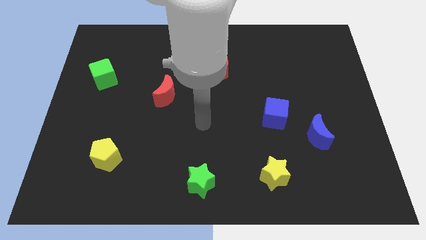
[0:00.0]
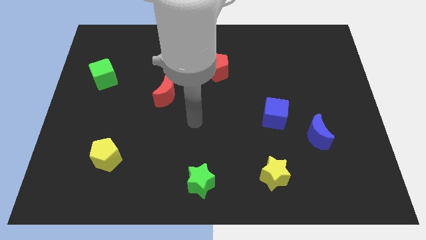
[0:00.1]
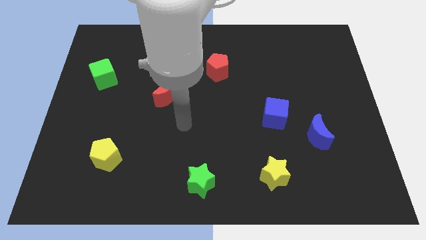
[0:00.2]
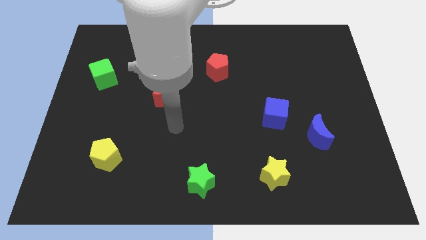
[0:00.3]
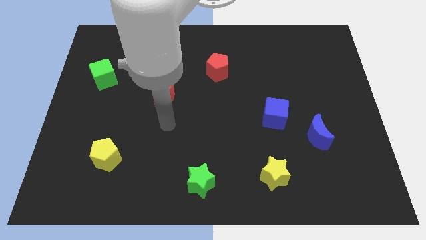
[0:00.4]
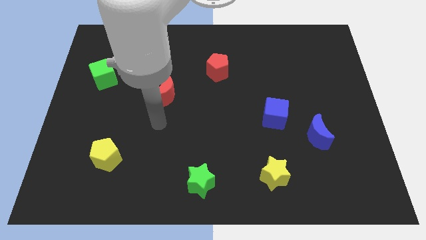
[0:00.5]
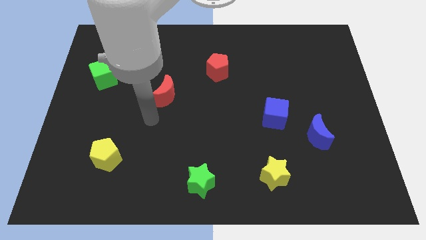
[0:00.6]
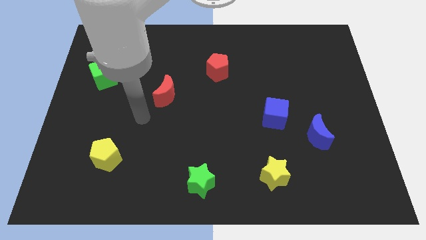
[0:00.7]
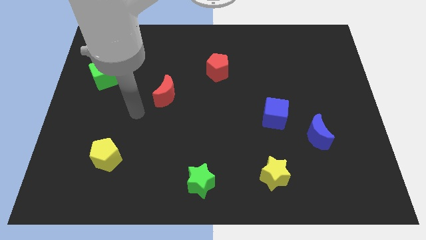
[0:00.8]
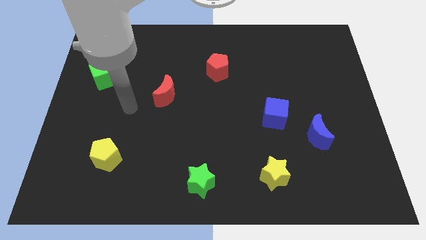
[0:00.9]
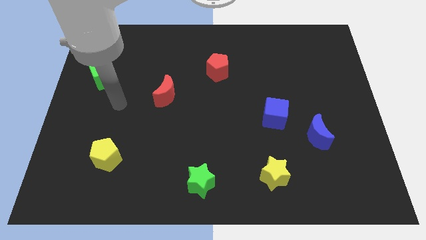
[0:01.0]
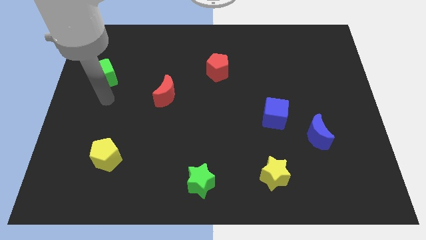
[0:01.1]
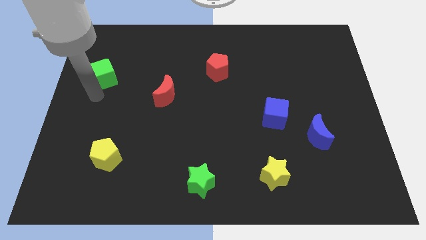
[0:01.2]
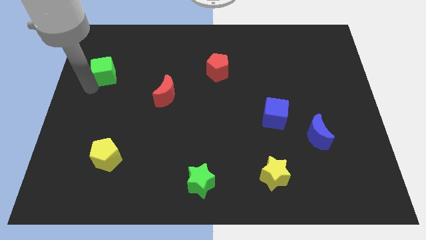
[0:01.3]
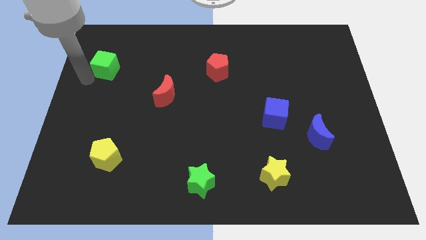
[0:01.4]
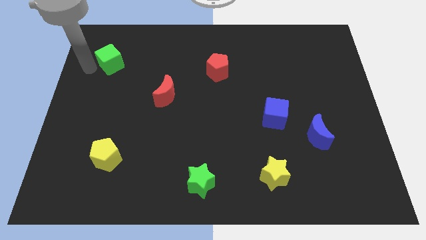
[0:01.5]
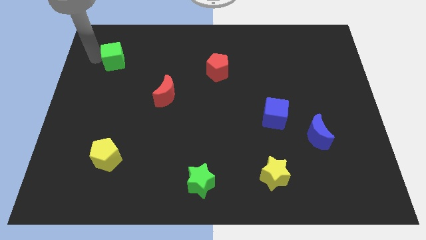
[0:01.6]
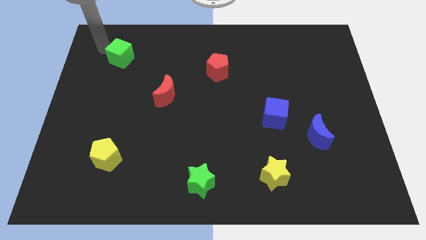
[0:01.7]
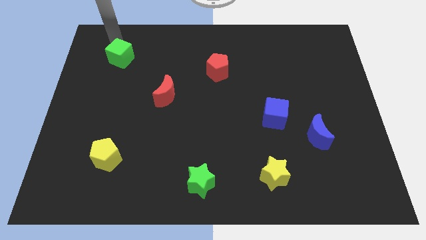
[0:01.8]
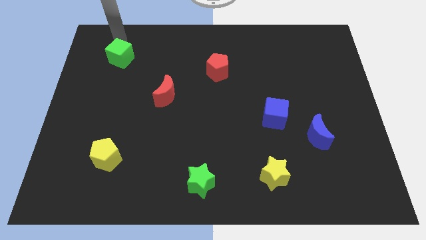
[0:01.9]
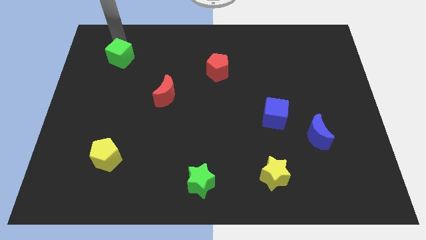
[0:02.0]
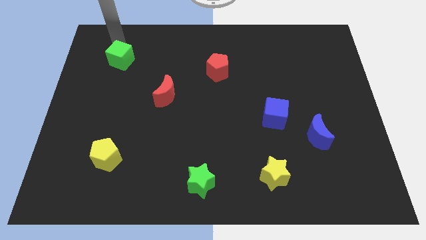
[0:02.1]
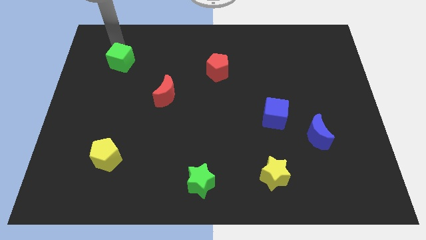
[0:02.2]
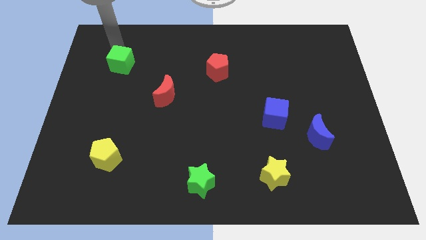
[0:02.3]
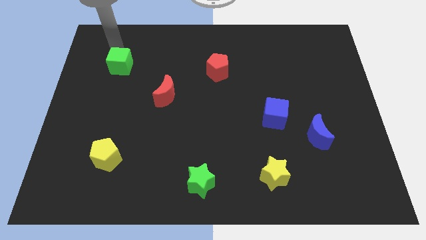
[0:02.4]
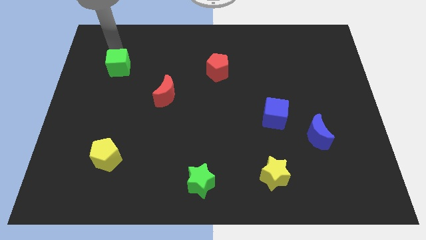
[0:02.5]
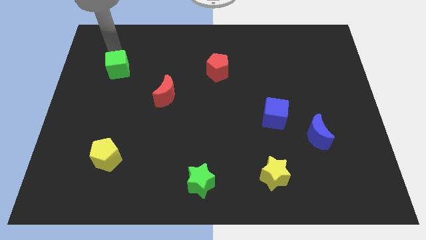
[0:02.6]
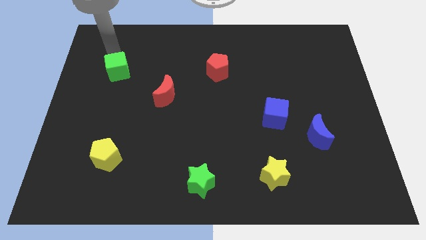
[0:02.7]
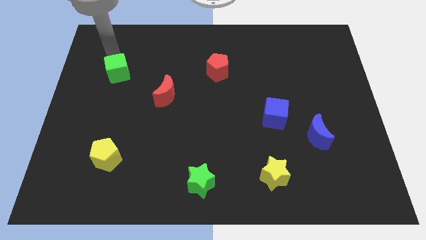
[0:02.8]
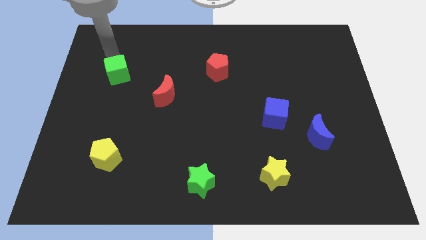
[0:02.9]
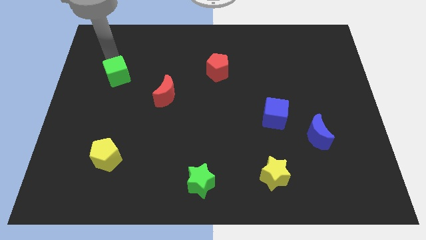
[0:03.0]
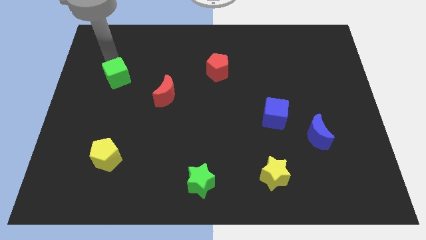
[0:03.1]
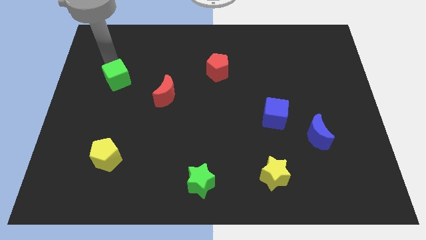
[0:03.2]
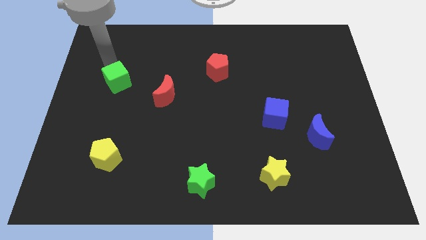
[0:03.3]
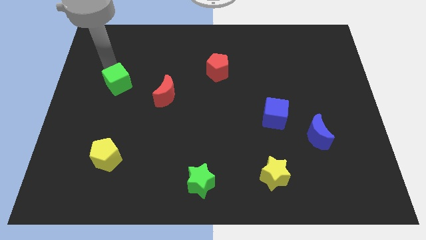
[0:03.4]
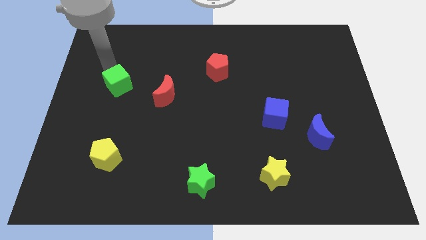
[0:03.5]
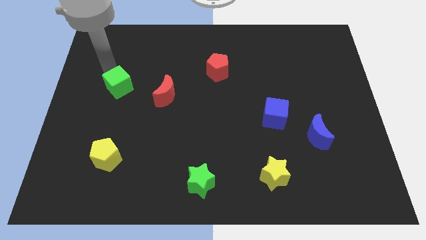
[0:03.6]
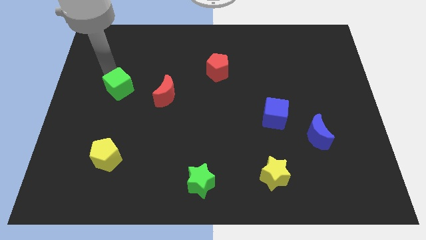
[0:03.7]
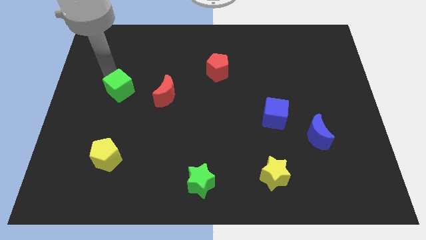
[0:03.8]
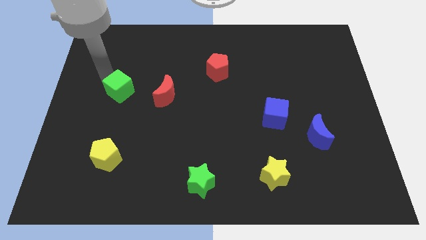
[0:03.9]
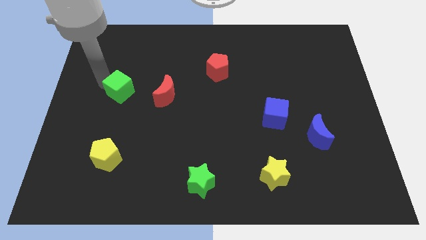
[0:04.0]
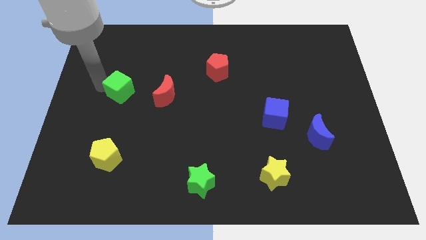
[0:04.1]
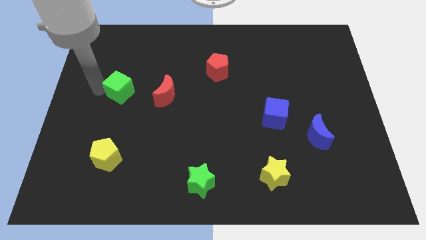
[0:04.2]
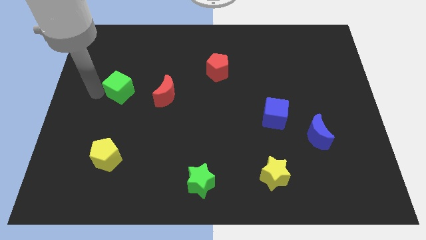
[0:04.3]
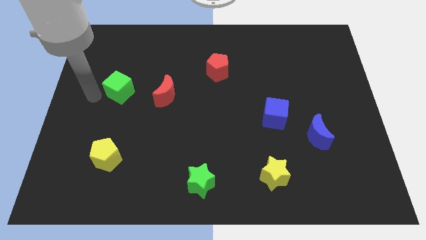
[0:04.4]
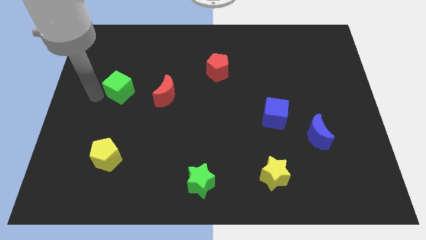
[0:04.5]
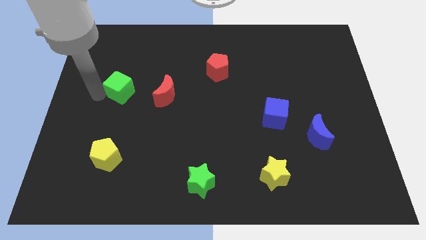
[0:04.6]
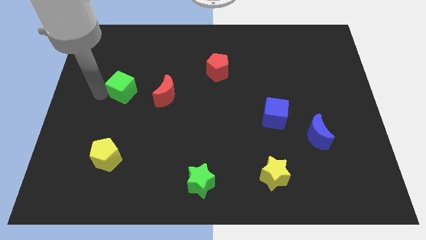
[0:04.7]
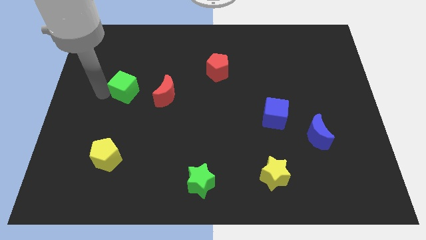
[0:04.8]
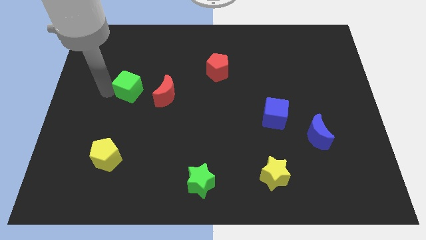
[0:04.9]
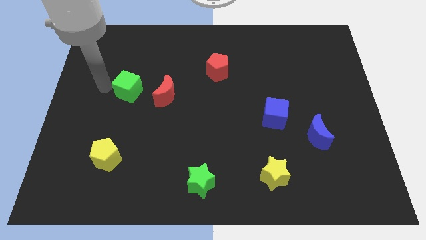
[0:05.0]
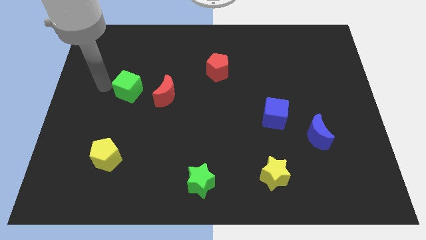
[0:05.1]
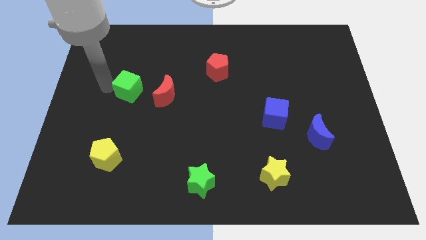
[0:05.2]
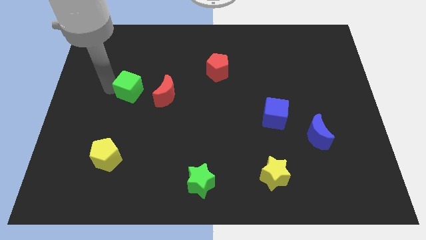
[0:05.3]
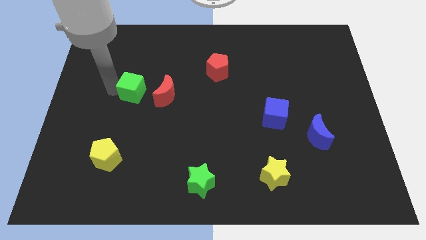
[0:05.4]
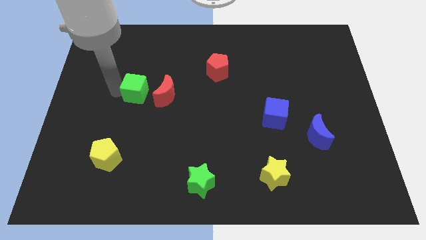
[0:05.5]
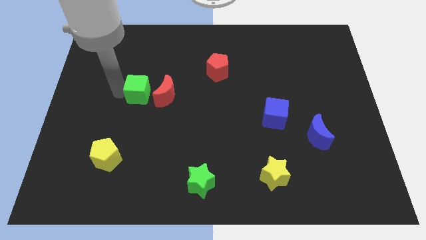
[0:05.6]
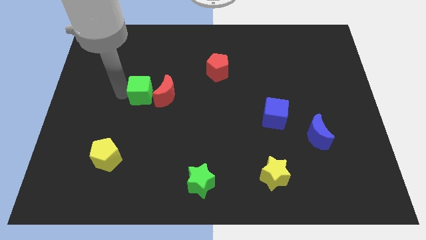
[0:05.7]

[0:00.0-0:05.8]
put the green cube close to the red moon
